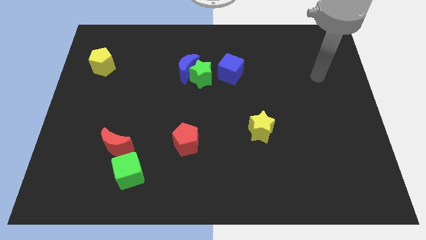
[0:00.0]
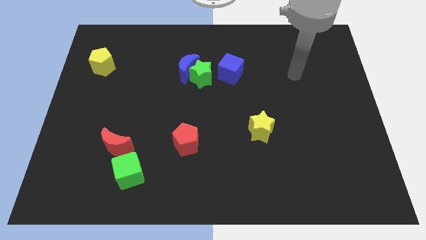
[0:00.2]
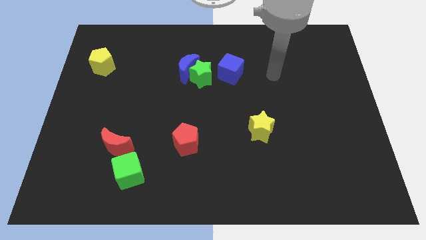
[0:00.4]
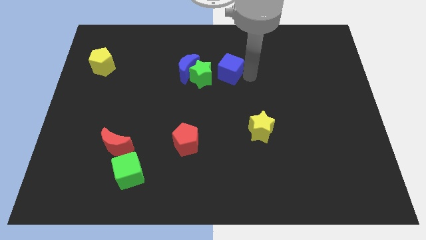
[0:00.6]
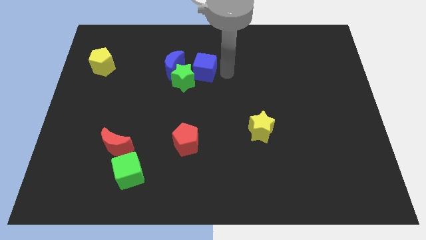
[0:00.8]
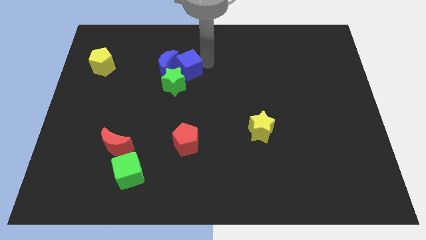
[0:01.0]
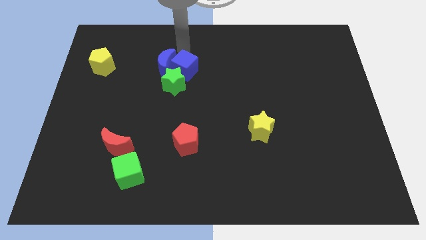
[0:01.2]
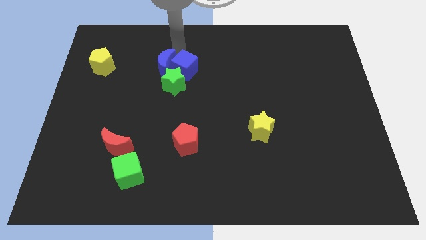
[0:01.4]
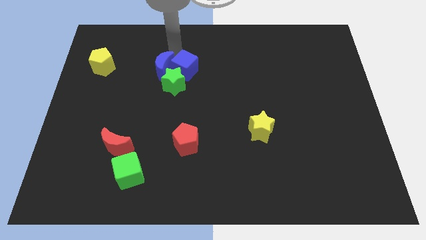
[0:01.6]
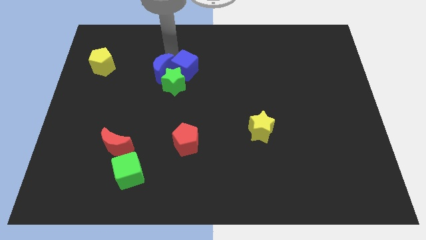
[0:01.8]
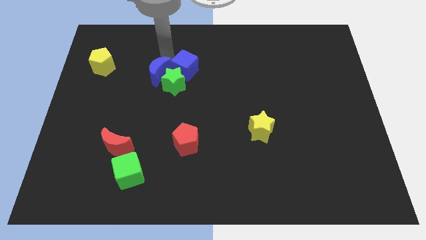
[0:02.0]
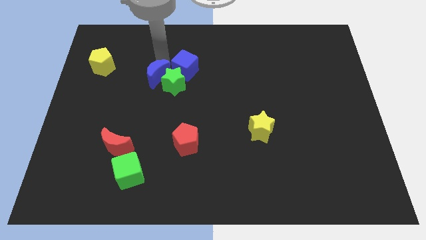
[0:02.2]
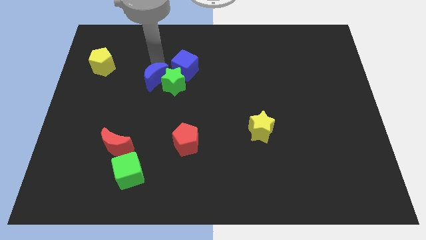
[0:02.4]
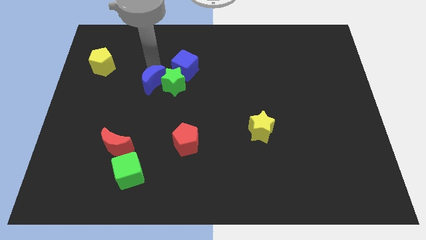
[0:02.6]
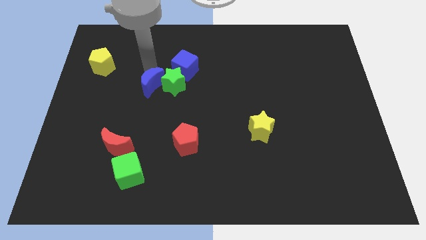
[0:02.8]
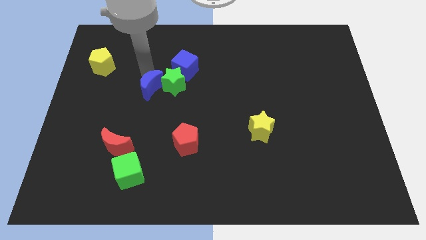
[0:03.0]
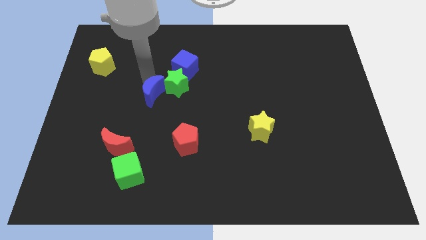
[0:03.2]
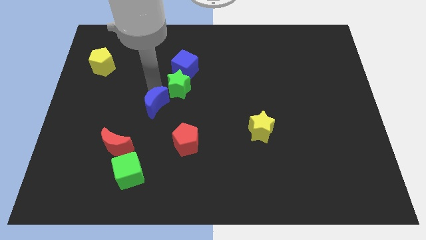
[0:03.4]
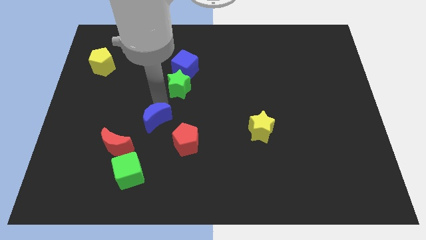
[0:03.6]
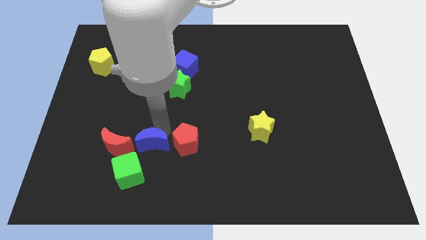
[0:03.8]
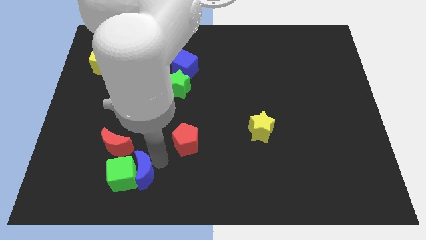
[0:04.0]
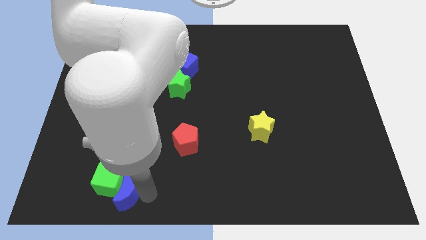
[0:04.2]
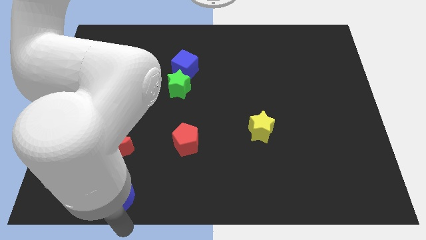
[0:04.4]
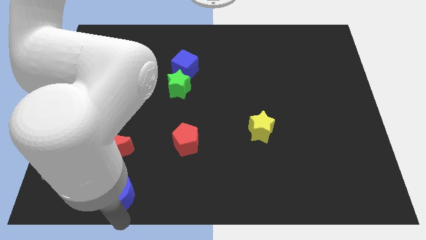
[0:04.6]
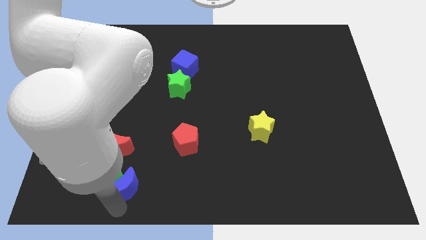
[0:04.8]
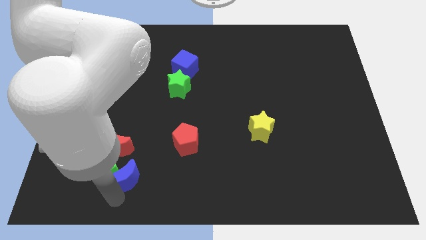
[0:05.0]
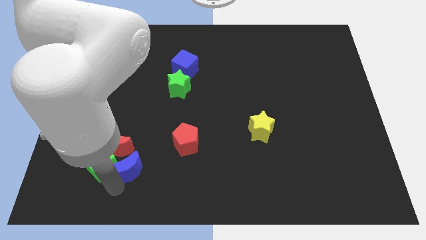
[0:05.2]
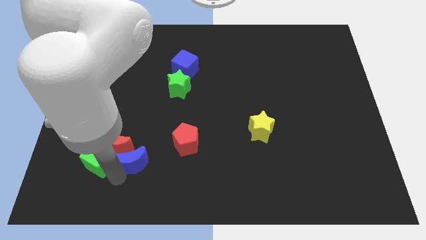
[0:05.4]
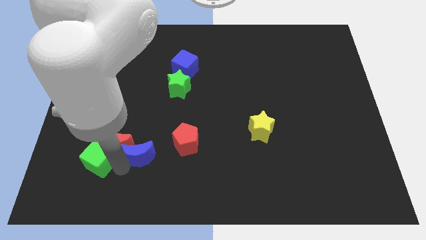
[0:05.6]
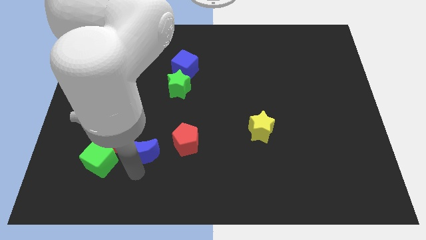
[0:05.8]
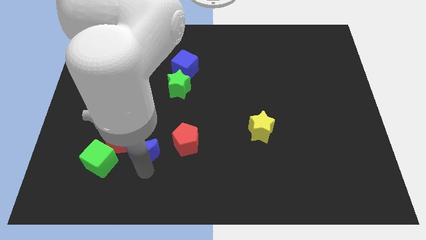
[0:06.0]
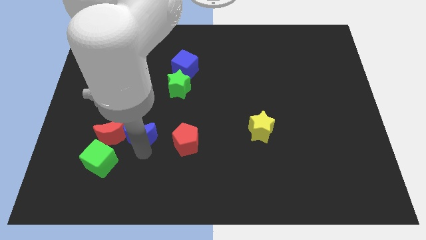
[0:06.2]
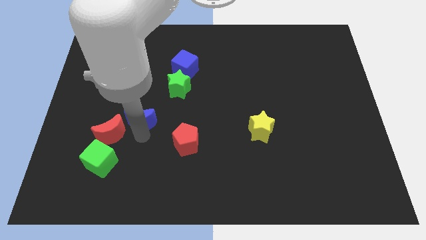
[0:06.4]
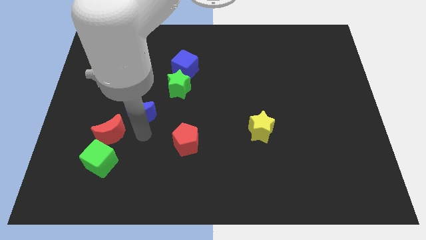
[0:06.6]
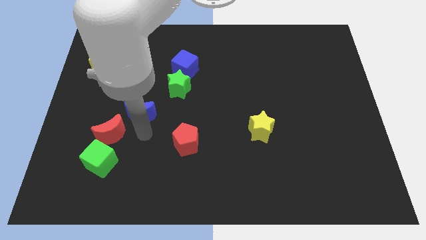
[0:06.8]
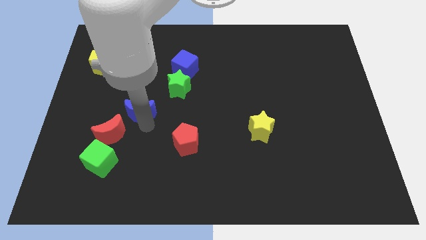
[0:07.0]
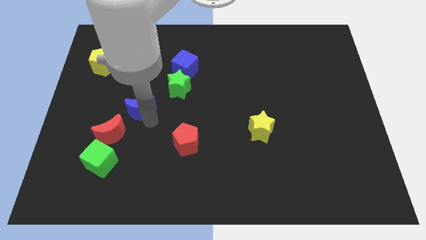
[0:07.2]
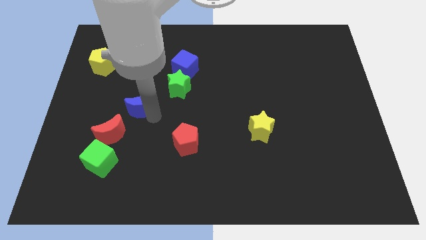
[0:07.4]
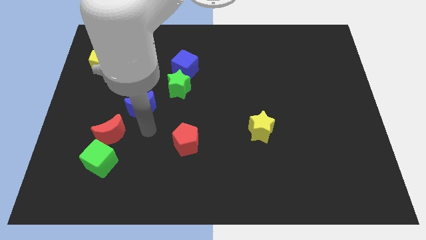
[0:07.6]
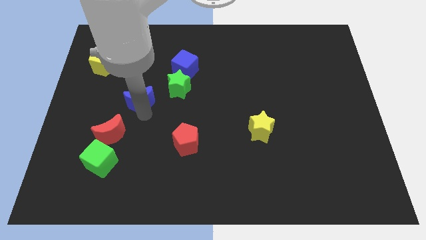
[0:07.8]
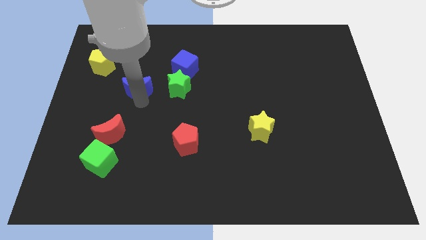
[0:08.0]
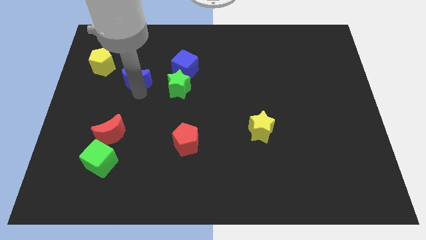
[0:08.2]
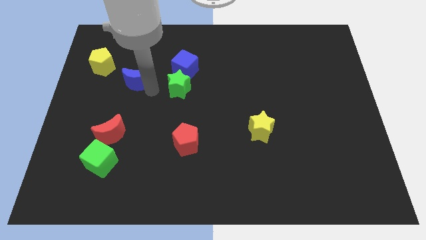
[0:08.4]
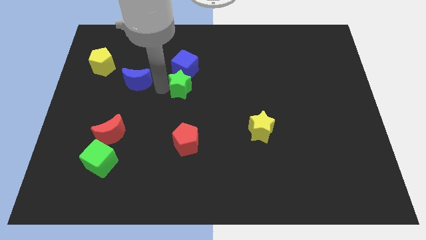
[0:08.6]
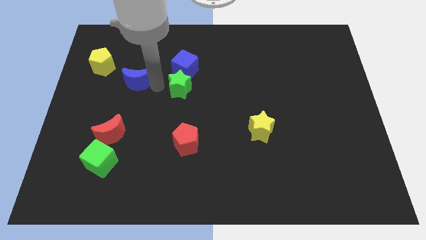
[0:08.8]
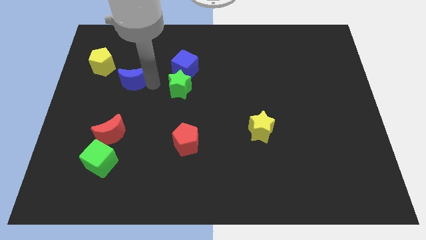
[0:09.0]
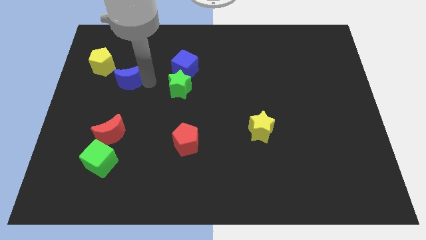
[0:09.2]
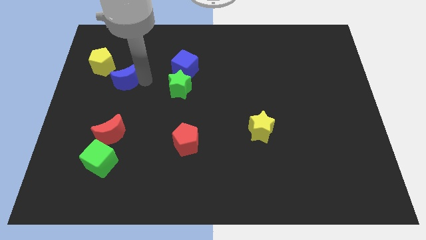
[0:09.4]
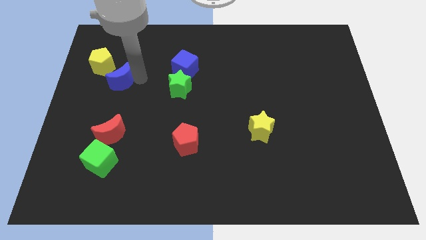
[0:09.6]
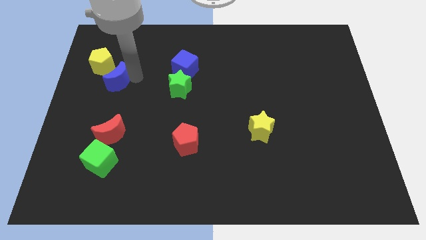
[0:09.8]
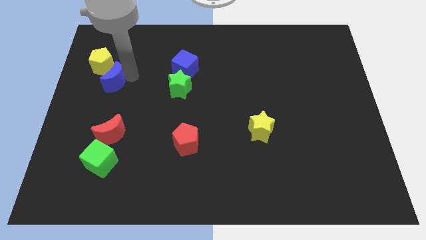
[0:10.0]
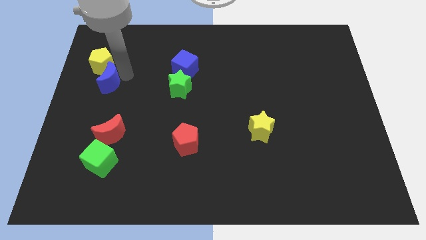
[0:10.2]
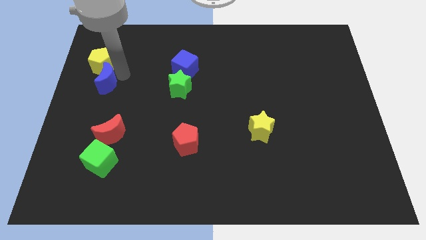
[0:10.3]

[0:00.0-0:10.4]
push the blue moon to the left side of the board

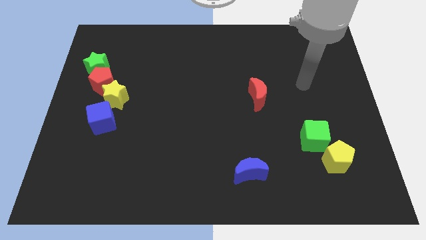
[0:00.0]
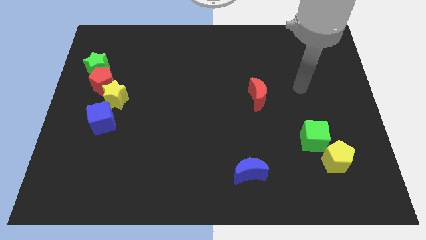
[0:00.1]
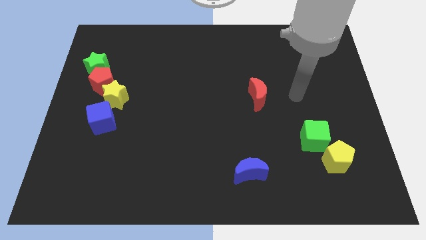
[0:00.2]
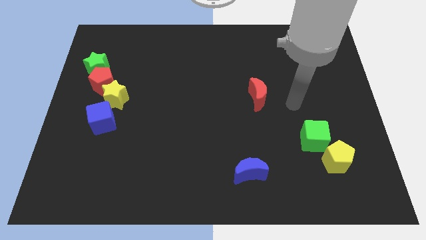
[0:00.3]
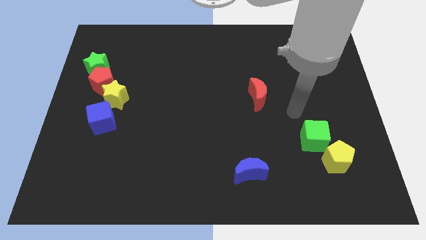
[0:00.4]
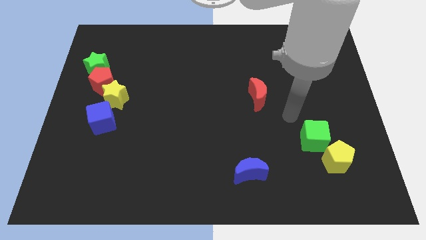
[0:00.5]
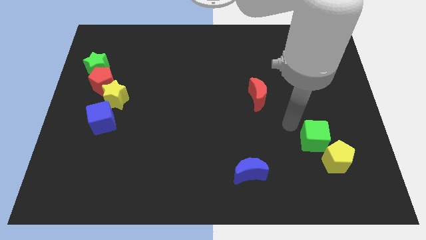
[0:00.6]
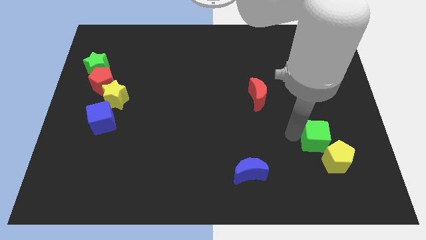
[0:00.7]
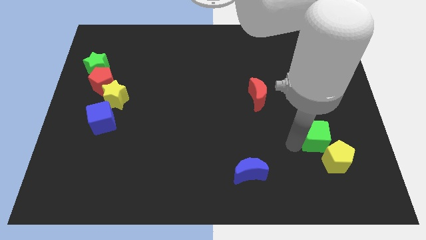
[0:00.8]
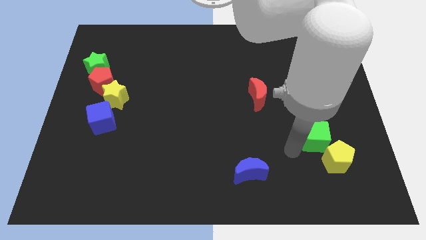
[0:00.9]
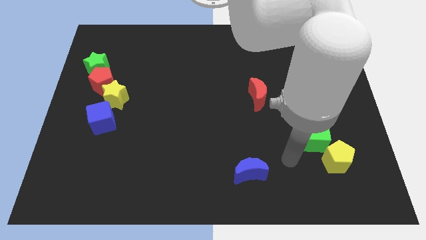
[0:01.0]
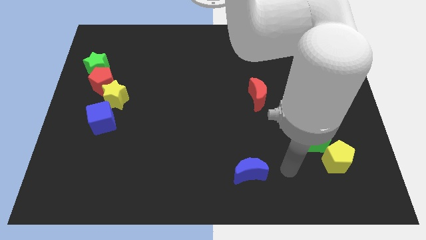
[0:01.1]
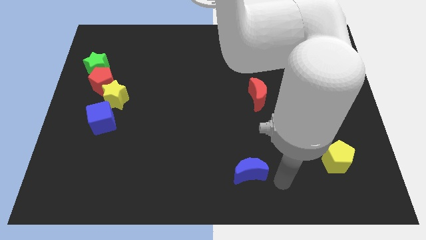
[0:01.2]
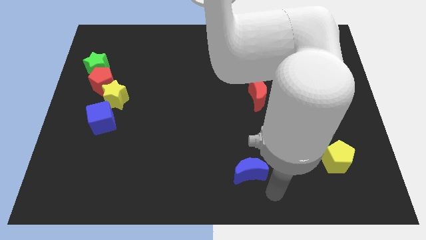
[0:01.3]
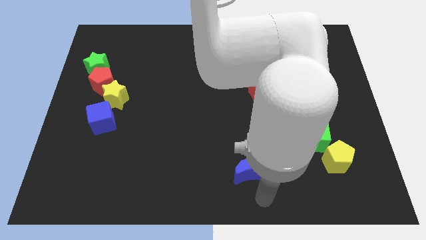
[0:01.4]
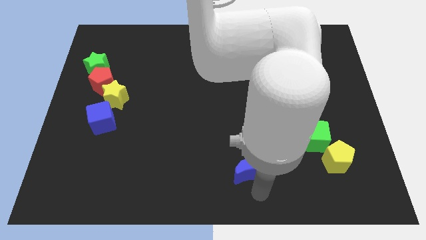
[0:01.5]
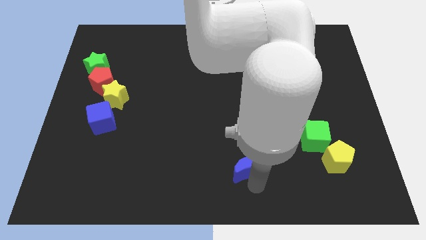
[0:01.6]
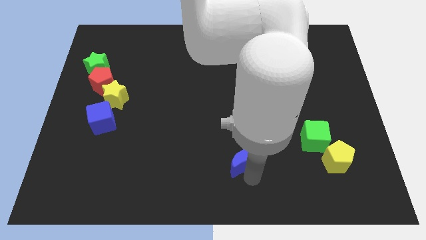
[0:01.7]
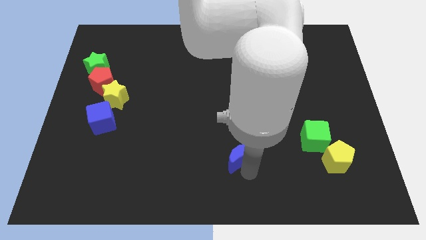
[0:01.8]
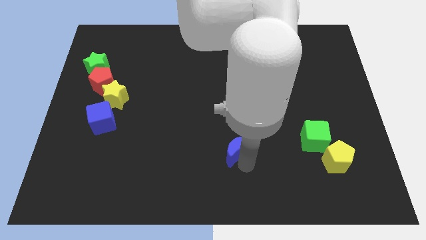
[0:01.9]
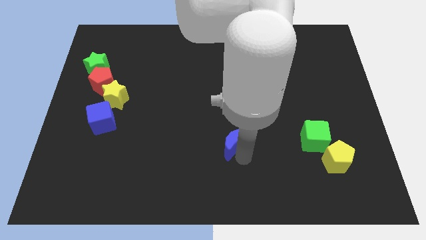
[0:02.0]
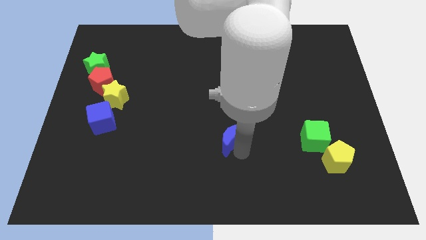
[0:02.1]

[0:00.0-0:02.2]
put the blue moon to the middle of the board
